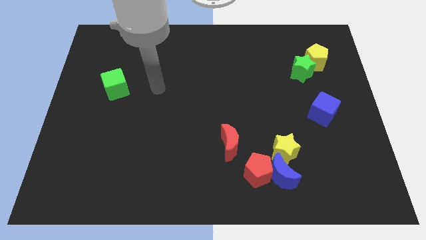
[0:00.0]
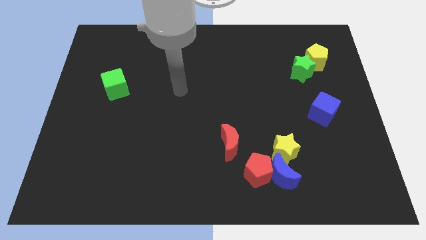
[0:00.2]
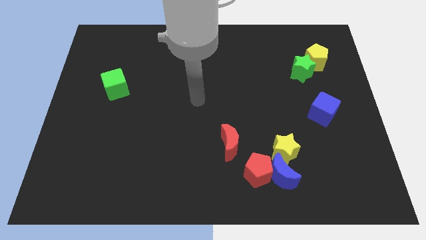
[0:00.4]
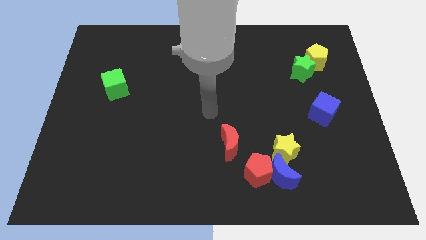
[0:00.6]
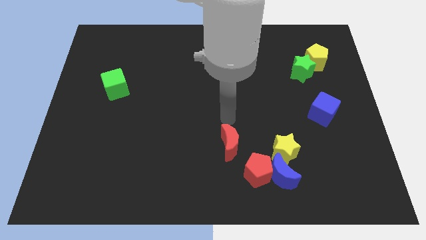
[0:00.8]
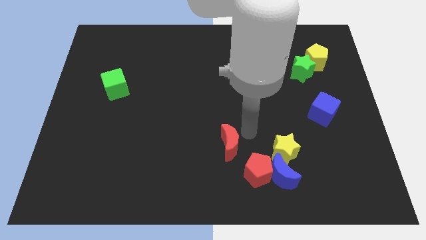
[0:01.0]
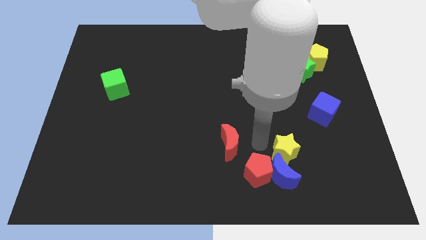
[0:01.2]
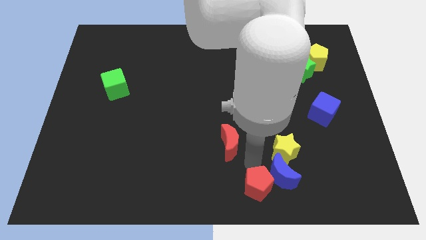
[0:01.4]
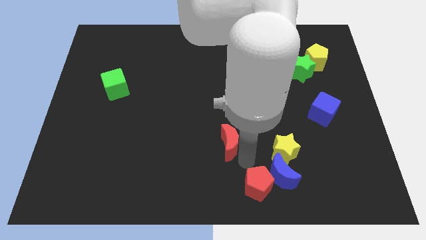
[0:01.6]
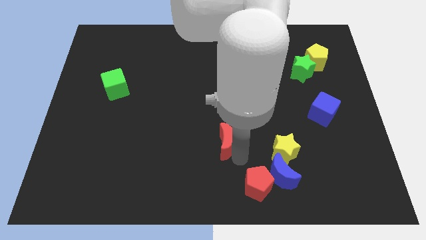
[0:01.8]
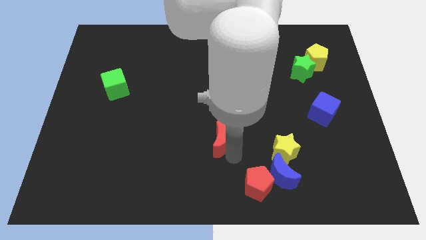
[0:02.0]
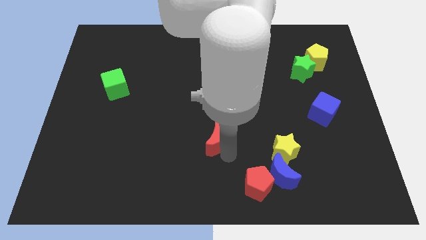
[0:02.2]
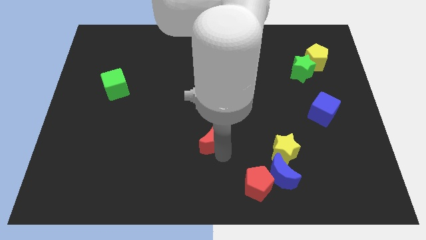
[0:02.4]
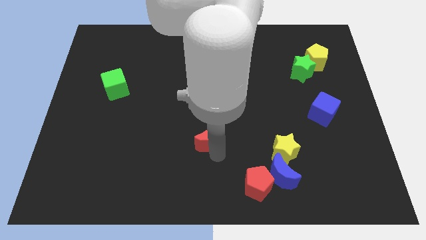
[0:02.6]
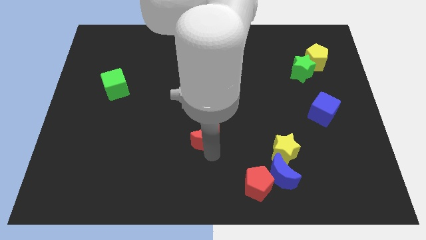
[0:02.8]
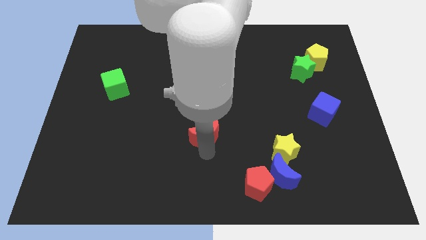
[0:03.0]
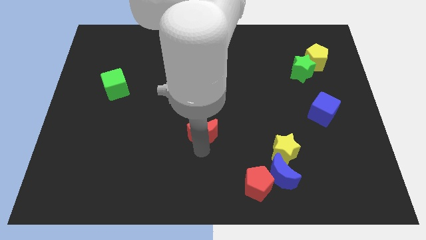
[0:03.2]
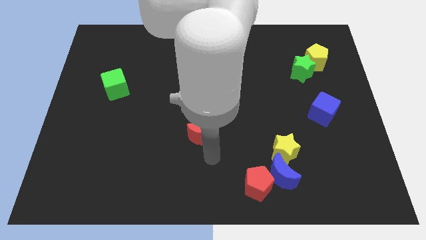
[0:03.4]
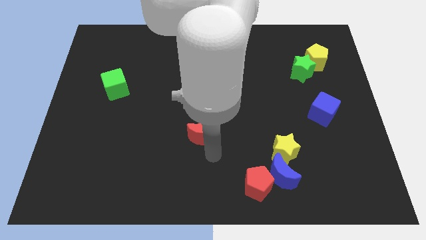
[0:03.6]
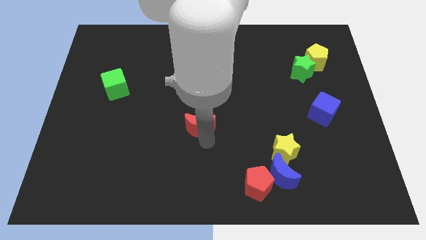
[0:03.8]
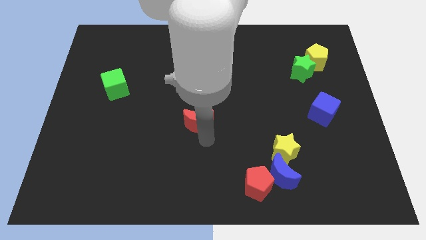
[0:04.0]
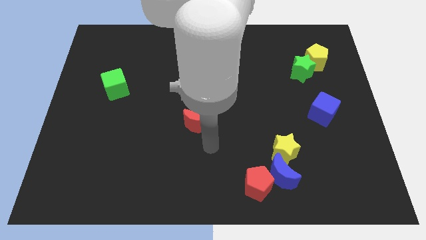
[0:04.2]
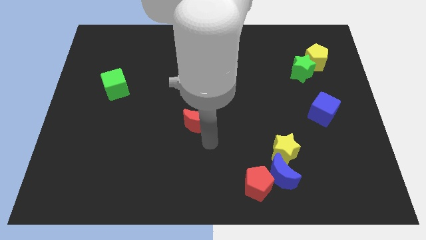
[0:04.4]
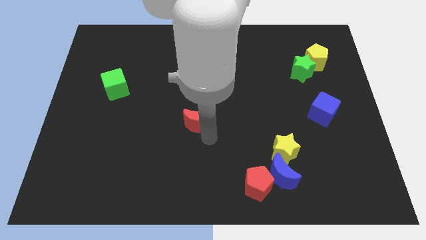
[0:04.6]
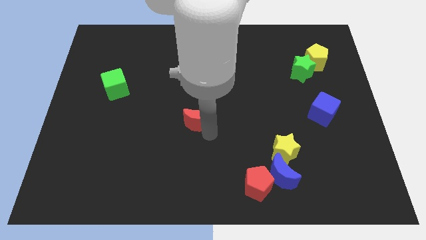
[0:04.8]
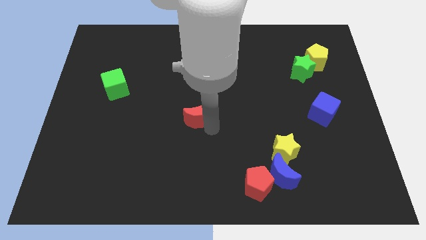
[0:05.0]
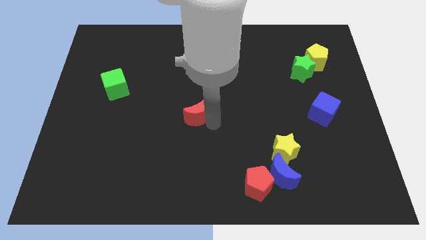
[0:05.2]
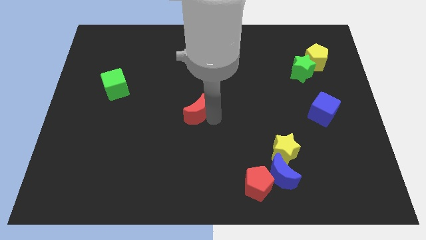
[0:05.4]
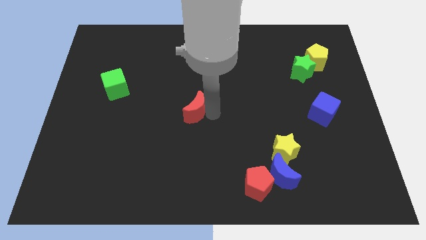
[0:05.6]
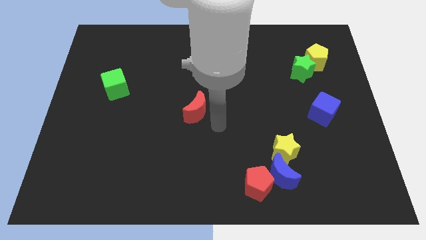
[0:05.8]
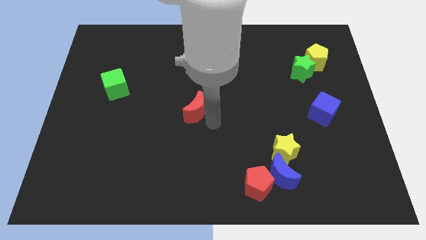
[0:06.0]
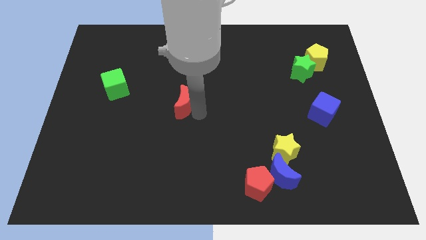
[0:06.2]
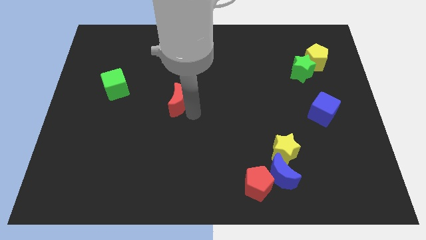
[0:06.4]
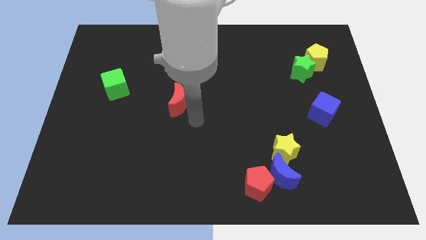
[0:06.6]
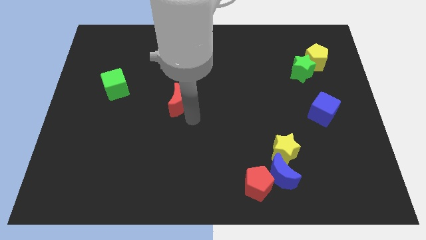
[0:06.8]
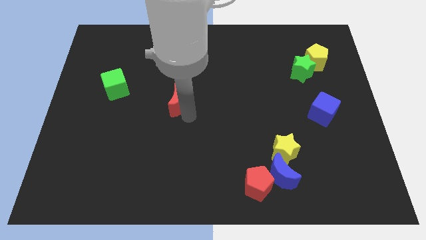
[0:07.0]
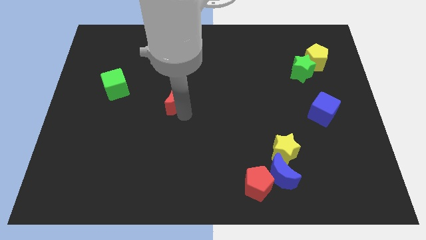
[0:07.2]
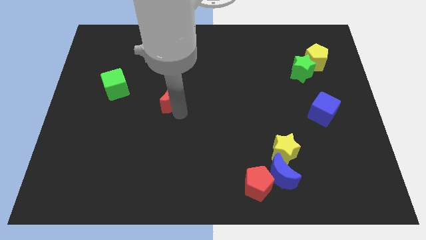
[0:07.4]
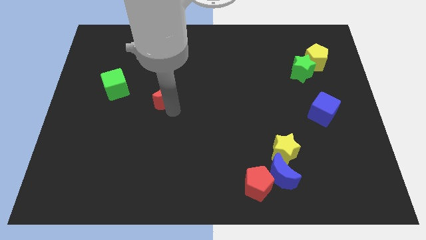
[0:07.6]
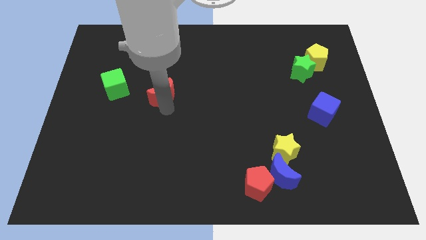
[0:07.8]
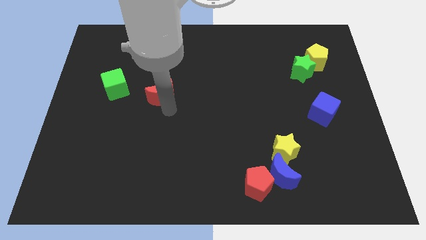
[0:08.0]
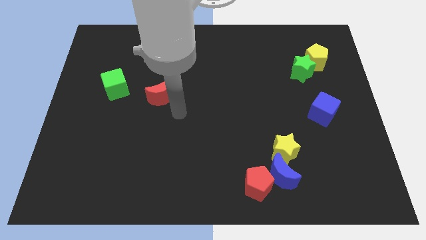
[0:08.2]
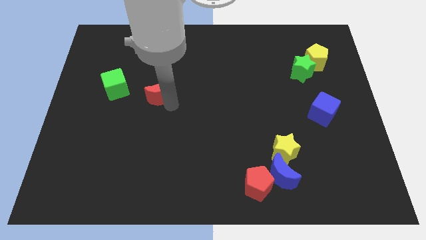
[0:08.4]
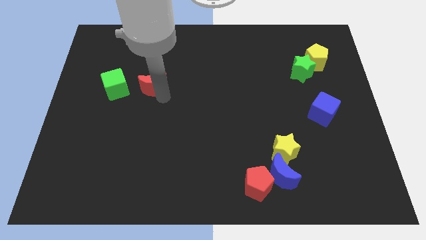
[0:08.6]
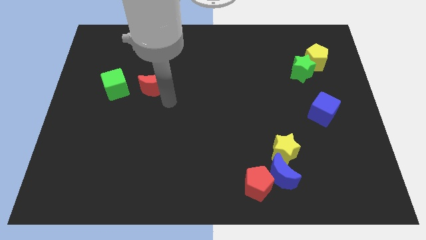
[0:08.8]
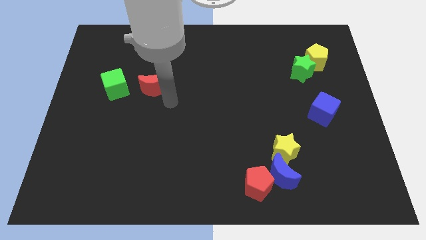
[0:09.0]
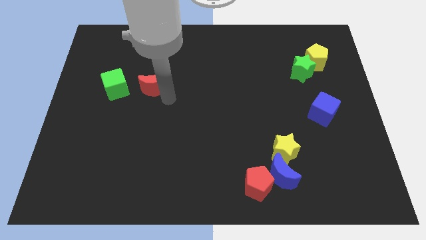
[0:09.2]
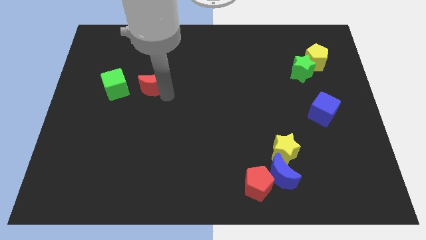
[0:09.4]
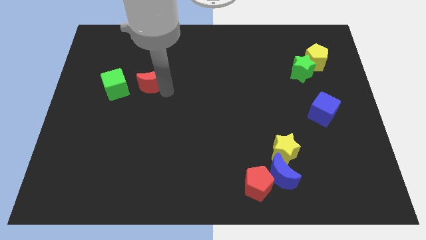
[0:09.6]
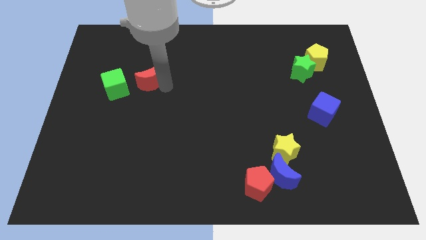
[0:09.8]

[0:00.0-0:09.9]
push the red moon to the top right side of the green cube

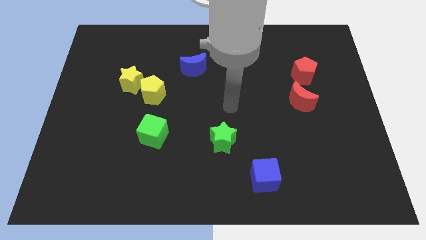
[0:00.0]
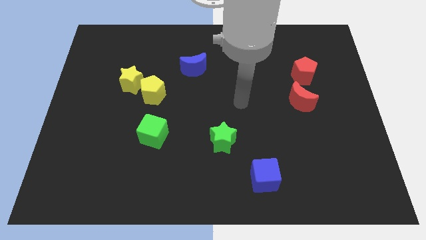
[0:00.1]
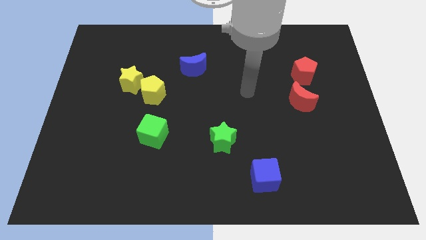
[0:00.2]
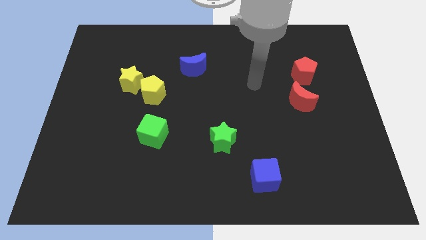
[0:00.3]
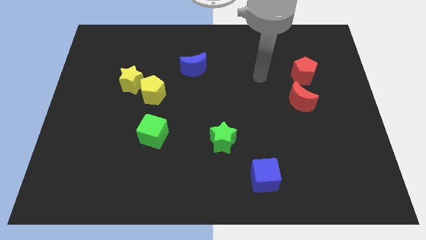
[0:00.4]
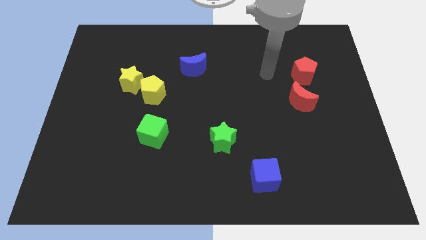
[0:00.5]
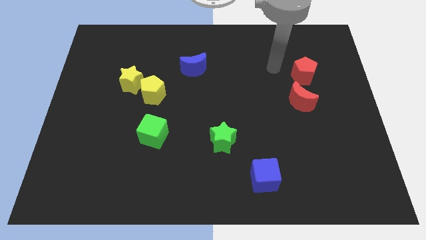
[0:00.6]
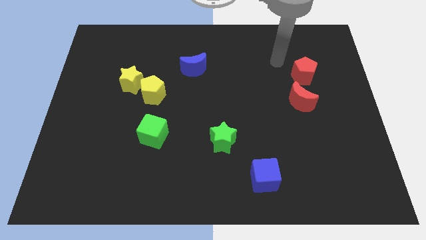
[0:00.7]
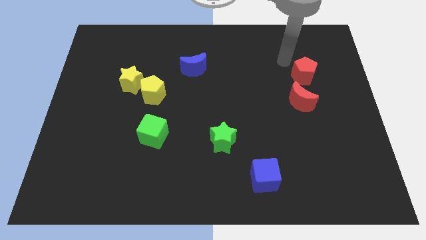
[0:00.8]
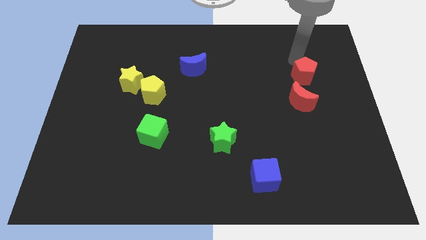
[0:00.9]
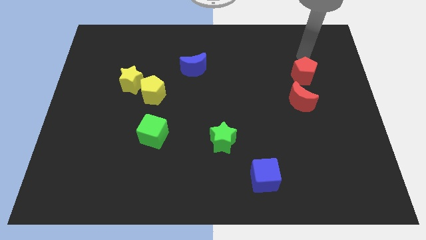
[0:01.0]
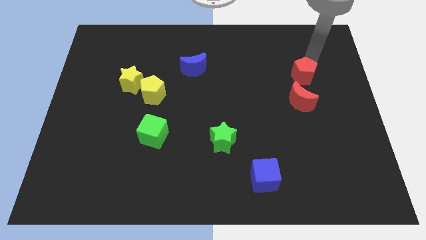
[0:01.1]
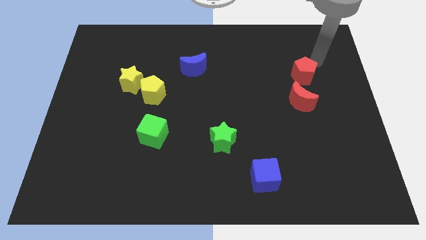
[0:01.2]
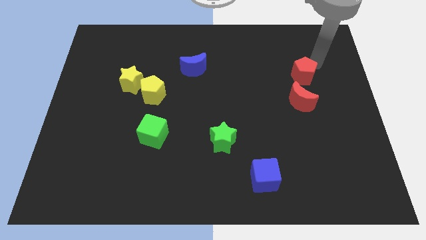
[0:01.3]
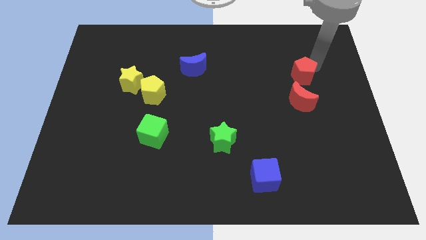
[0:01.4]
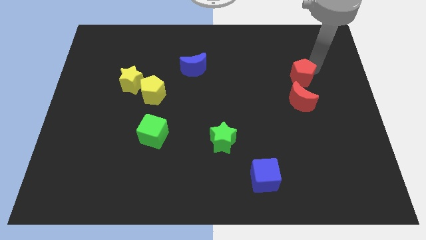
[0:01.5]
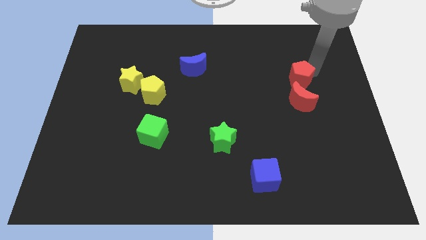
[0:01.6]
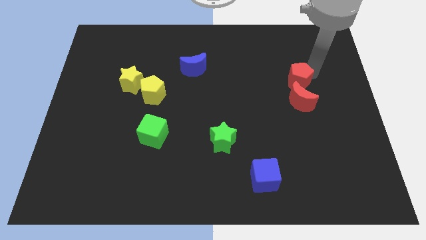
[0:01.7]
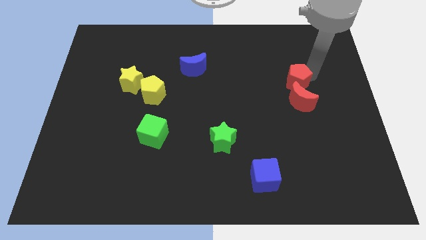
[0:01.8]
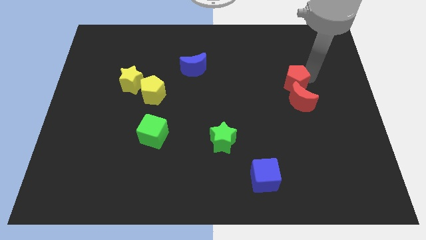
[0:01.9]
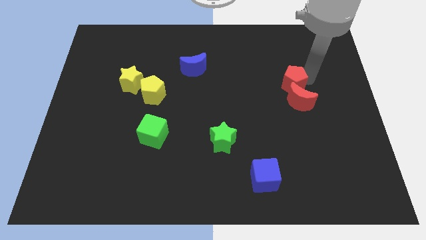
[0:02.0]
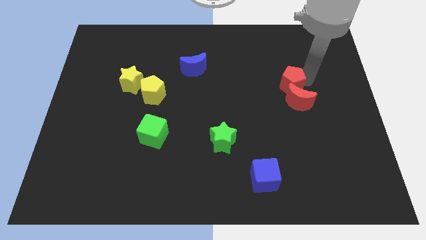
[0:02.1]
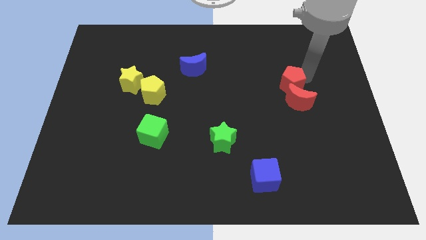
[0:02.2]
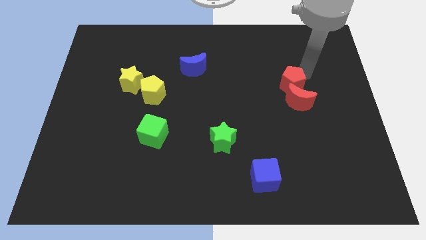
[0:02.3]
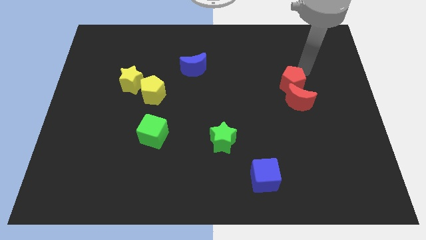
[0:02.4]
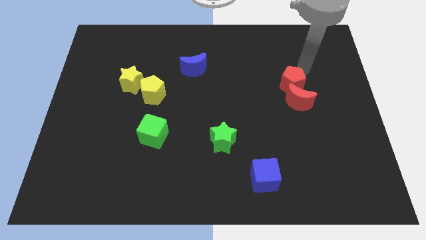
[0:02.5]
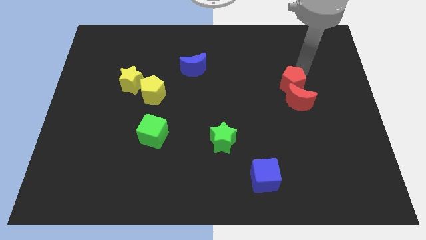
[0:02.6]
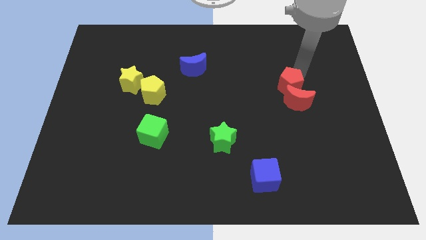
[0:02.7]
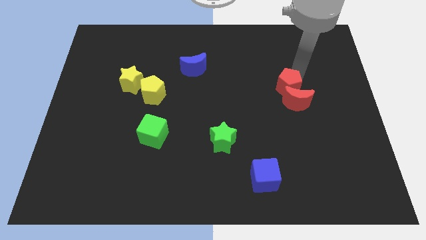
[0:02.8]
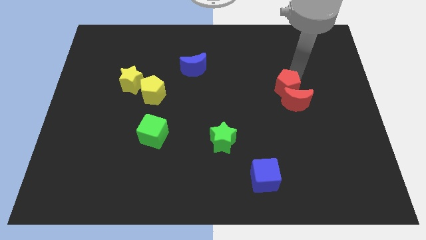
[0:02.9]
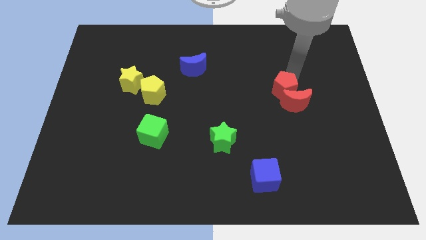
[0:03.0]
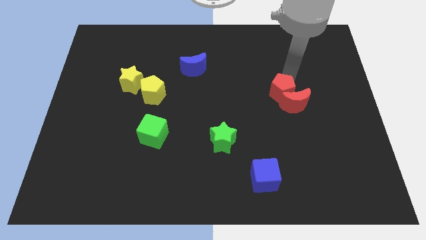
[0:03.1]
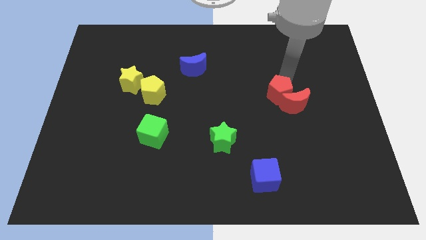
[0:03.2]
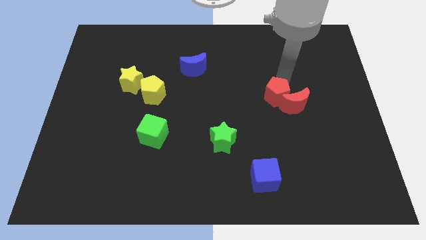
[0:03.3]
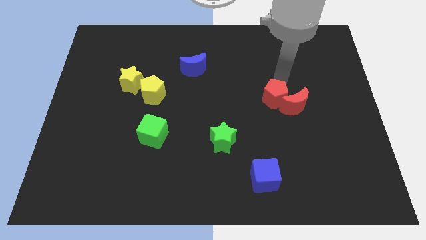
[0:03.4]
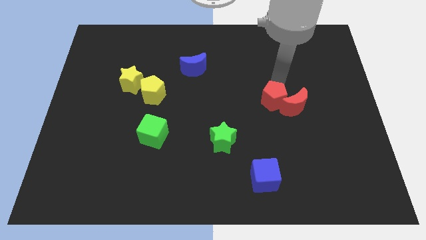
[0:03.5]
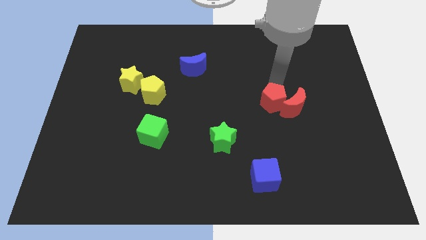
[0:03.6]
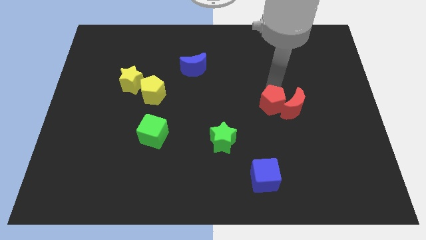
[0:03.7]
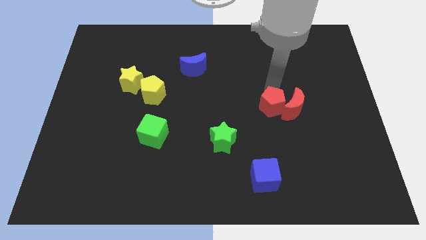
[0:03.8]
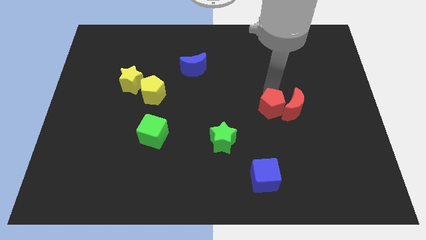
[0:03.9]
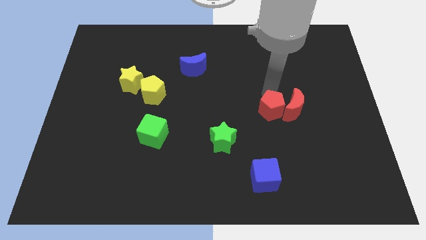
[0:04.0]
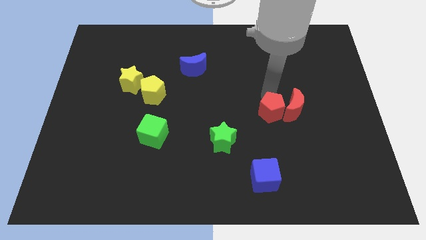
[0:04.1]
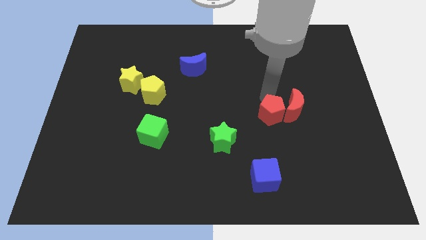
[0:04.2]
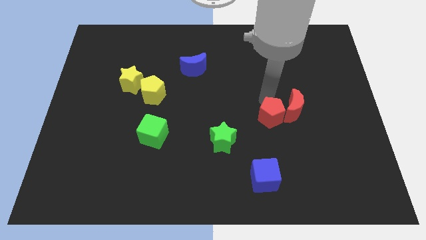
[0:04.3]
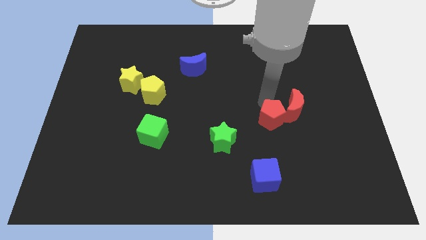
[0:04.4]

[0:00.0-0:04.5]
push the red pentagon to the top side of the blue cube
